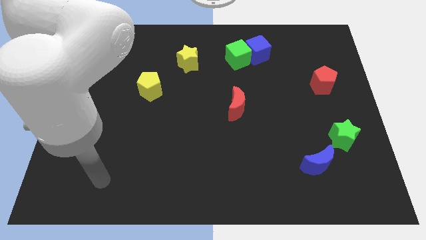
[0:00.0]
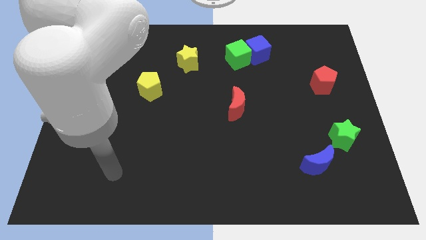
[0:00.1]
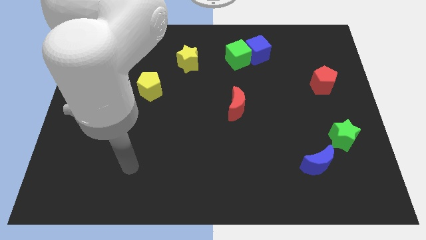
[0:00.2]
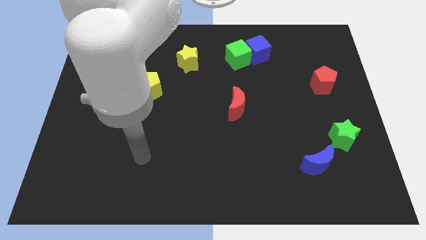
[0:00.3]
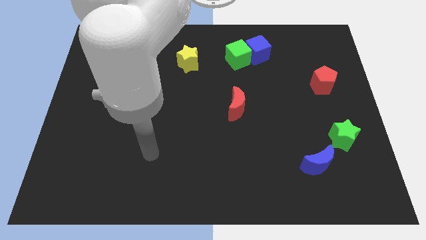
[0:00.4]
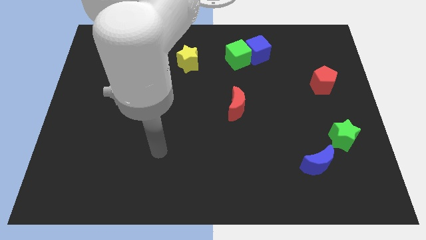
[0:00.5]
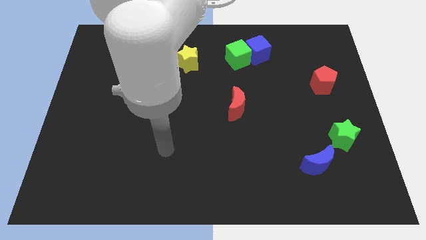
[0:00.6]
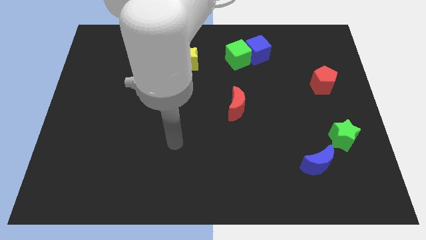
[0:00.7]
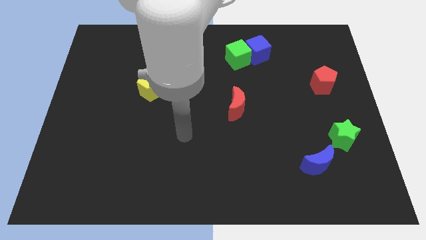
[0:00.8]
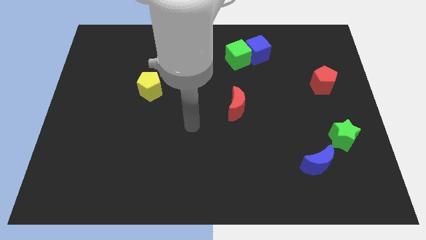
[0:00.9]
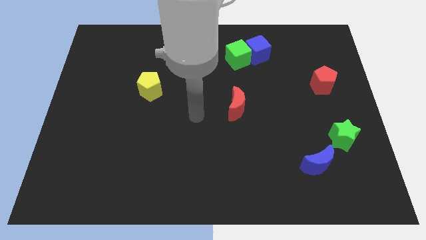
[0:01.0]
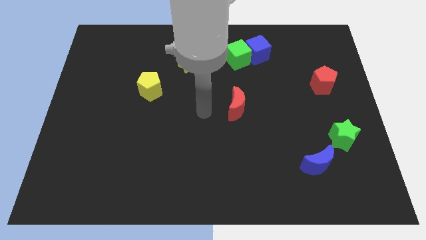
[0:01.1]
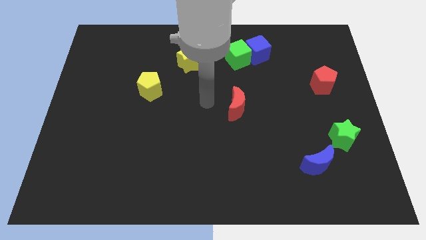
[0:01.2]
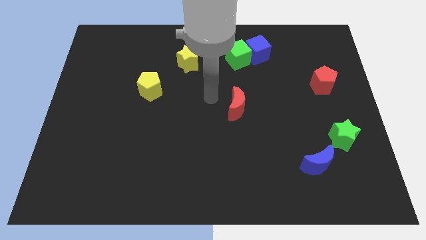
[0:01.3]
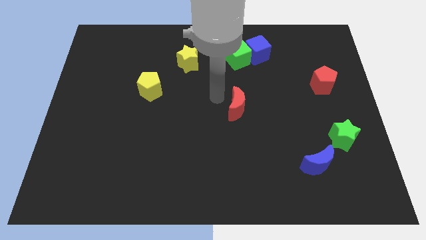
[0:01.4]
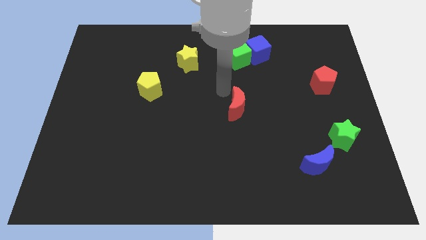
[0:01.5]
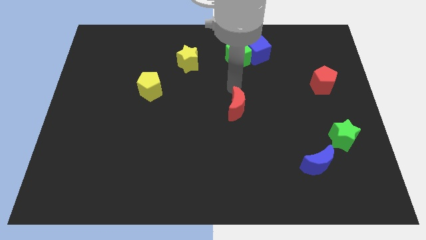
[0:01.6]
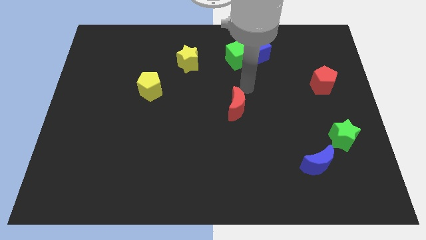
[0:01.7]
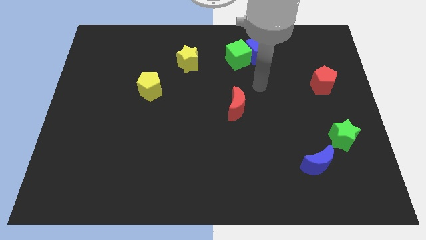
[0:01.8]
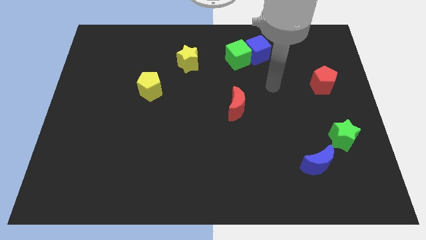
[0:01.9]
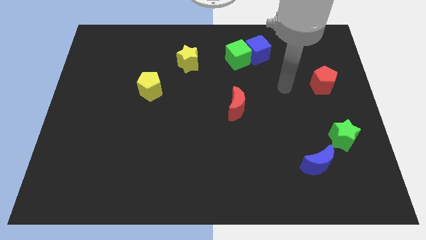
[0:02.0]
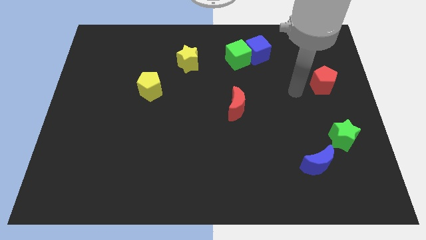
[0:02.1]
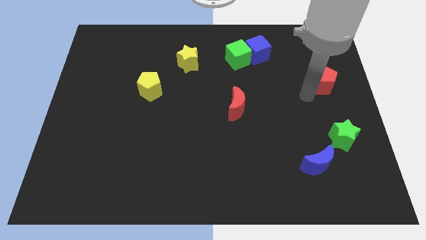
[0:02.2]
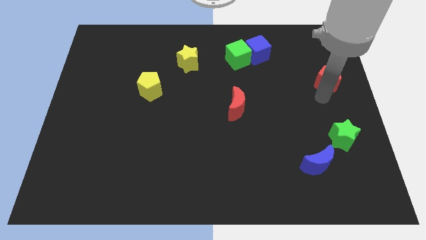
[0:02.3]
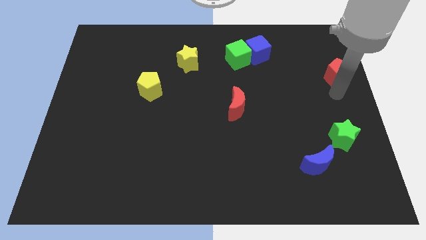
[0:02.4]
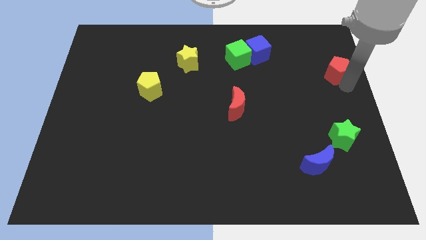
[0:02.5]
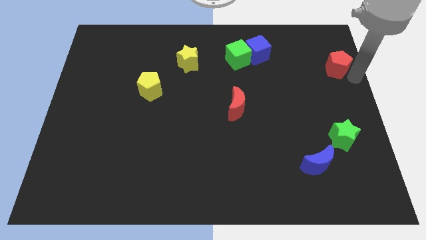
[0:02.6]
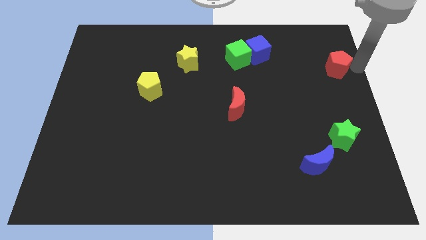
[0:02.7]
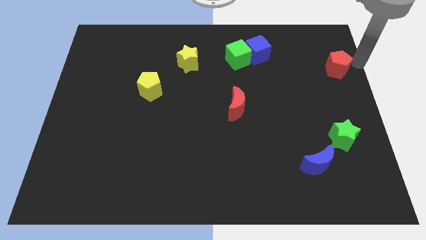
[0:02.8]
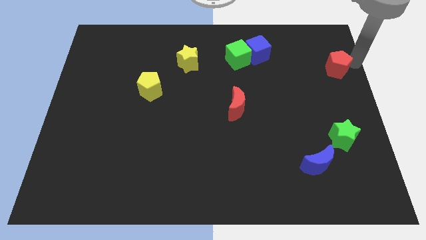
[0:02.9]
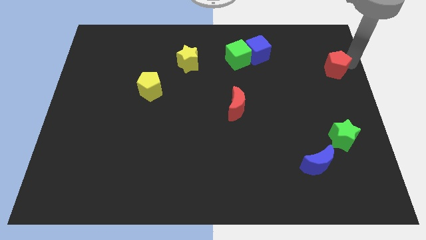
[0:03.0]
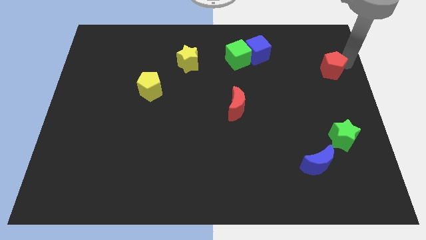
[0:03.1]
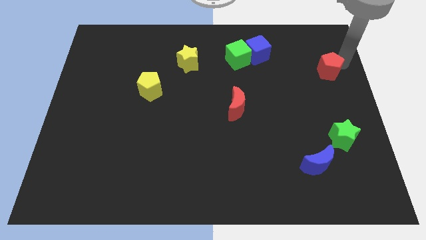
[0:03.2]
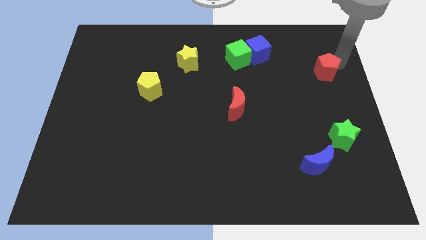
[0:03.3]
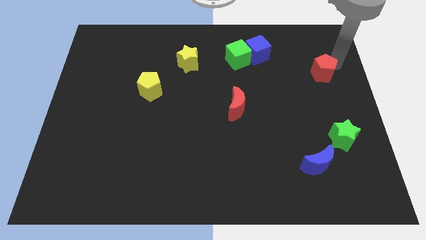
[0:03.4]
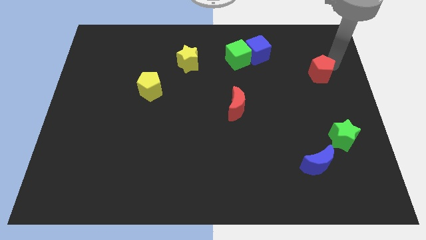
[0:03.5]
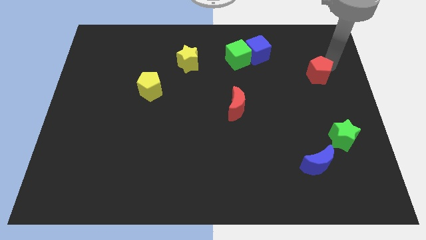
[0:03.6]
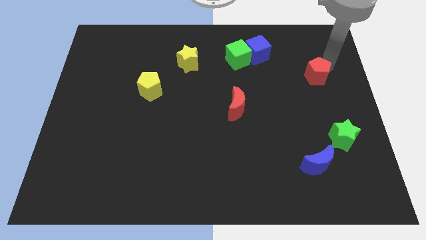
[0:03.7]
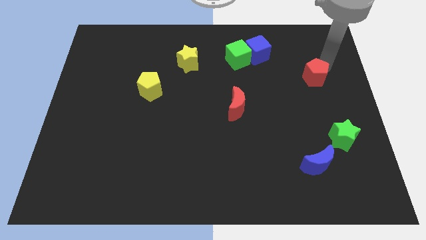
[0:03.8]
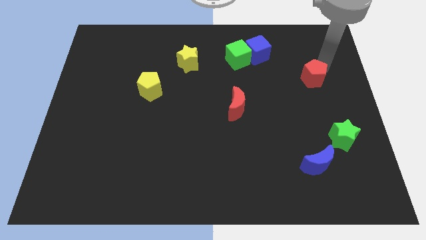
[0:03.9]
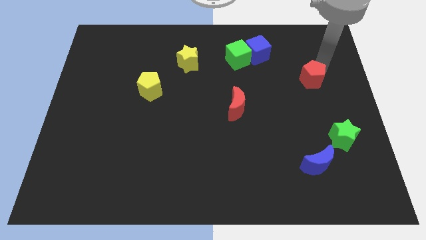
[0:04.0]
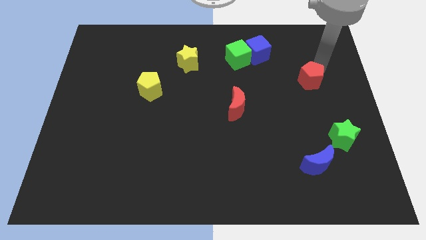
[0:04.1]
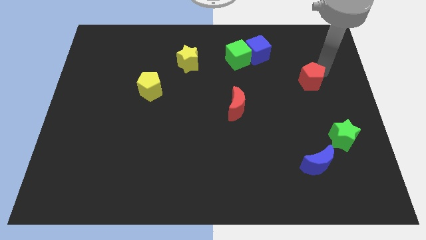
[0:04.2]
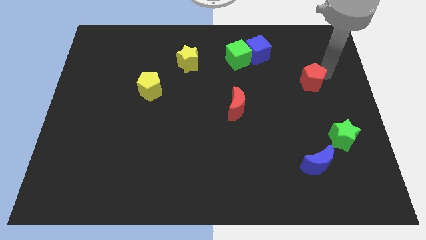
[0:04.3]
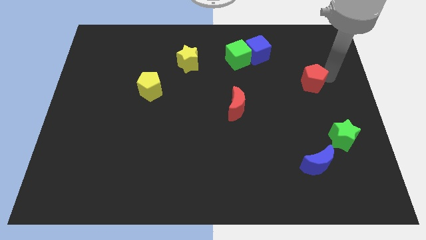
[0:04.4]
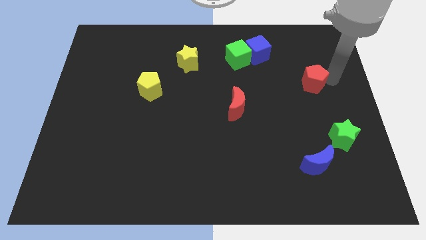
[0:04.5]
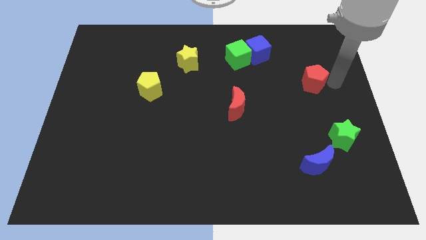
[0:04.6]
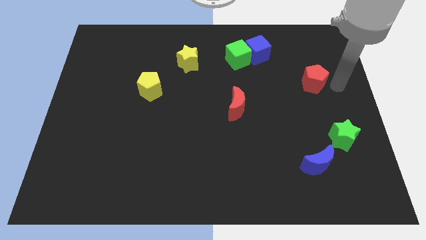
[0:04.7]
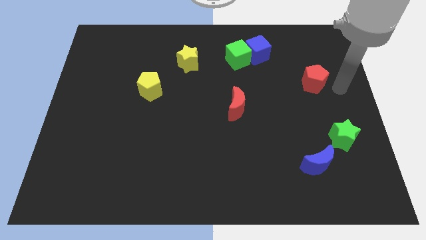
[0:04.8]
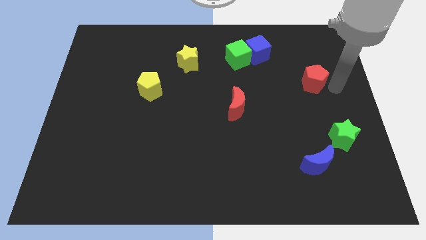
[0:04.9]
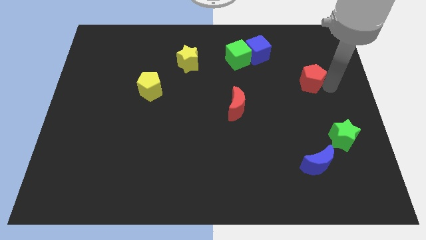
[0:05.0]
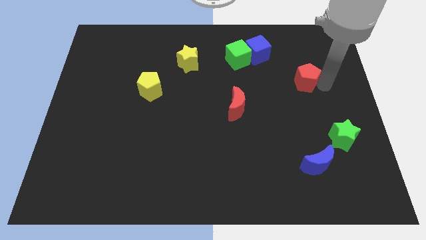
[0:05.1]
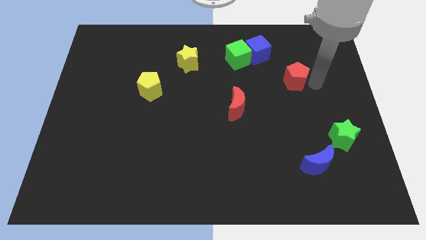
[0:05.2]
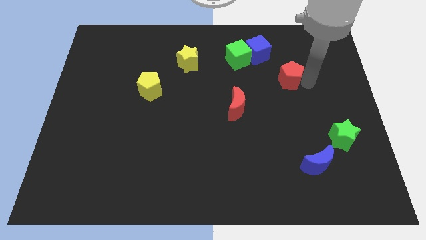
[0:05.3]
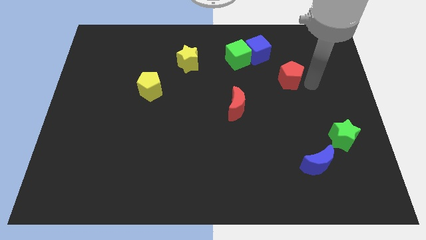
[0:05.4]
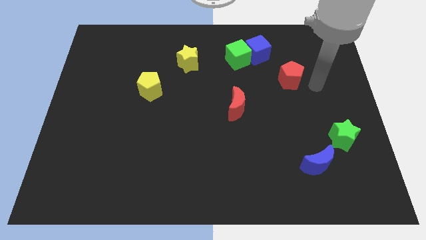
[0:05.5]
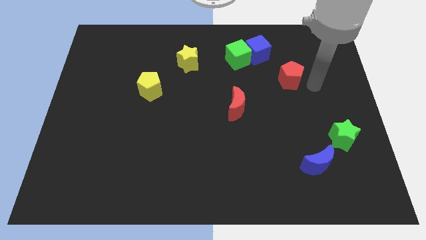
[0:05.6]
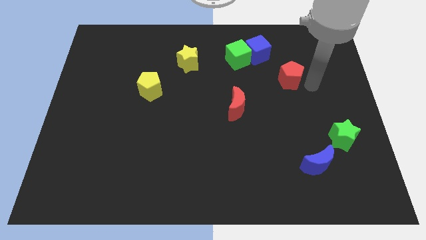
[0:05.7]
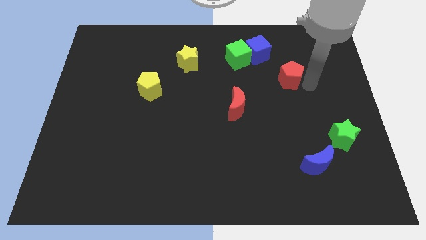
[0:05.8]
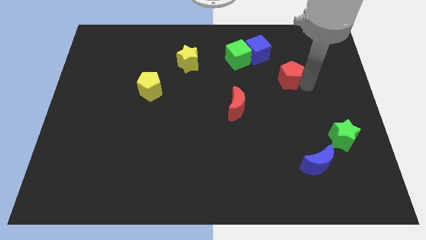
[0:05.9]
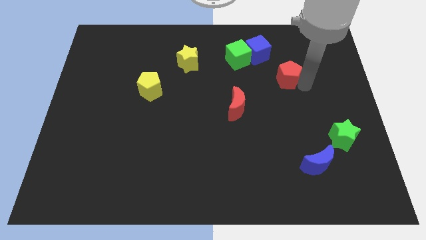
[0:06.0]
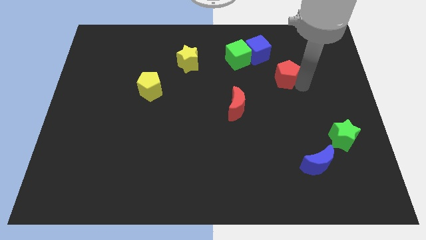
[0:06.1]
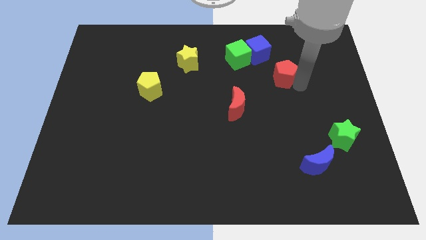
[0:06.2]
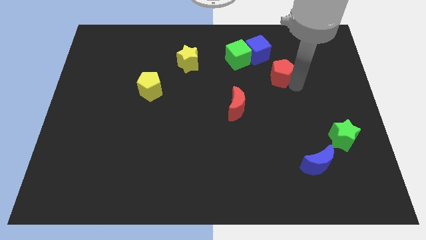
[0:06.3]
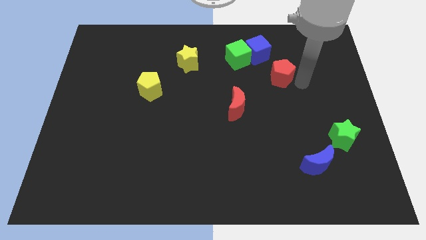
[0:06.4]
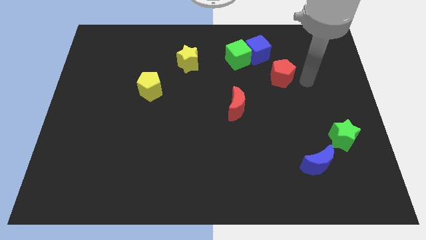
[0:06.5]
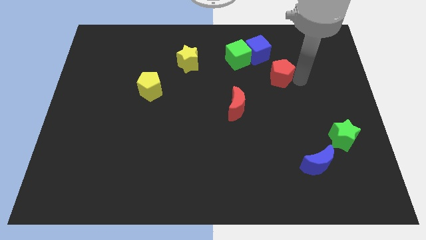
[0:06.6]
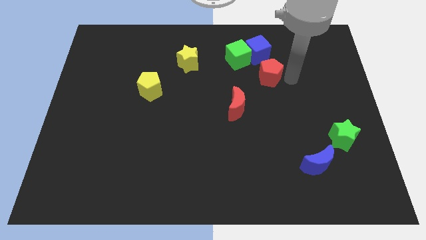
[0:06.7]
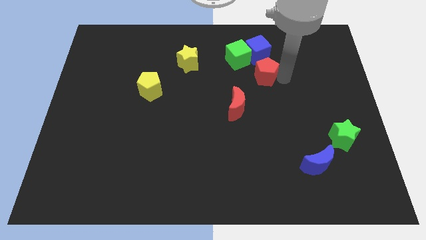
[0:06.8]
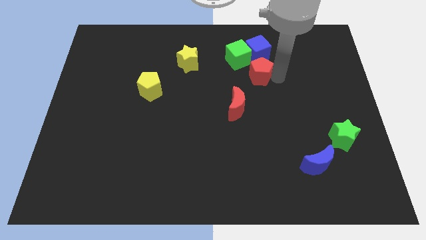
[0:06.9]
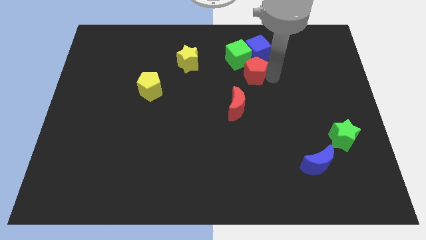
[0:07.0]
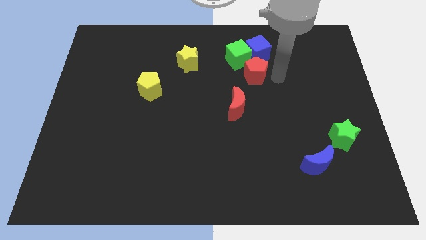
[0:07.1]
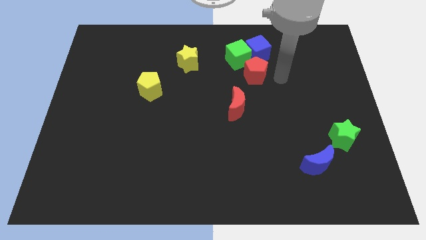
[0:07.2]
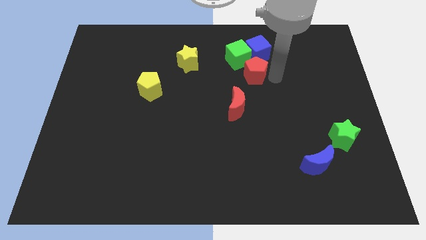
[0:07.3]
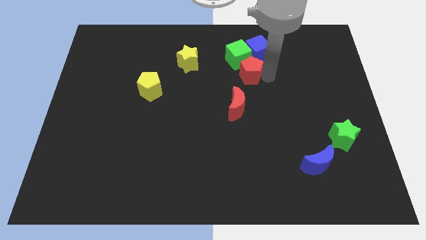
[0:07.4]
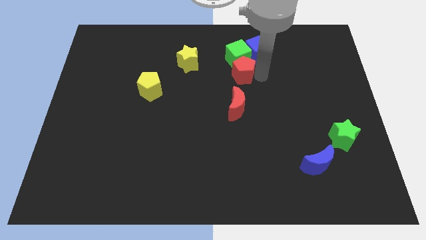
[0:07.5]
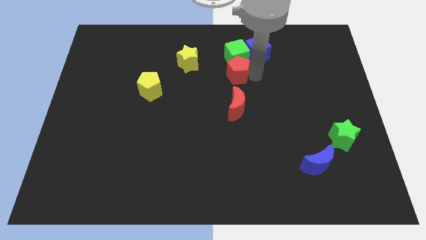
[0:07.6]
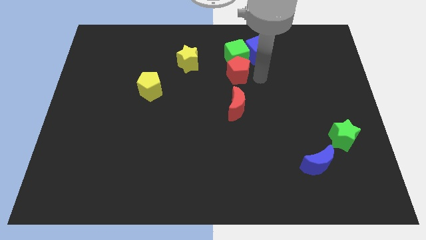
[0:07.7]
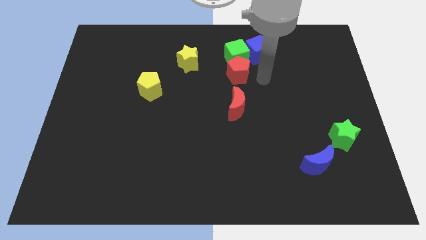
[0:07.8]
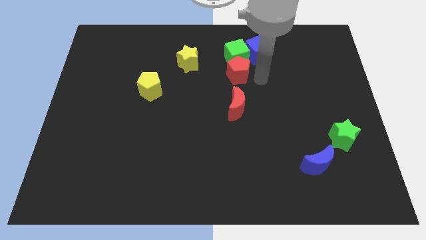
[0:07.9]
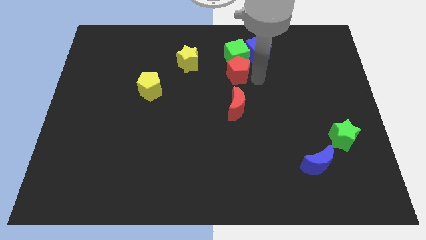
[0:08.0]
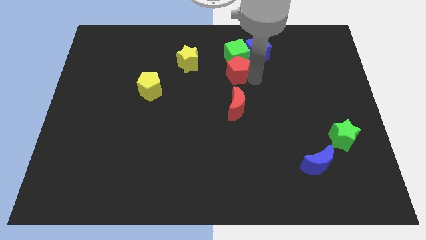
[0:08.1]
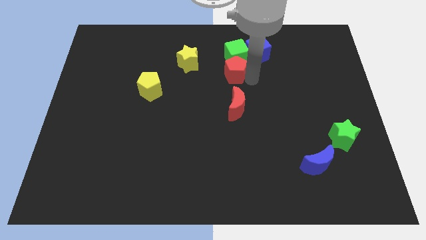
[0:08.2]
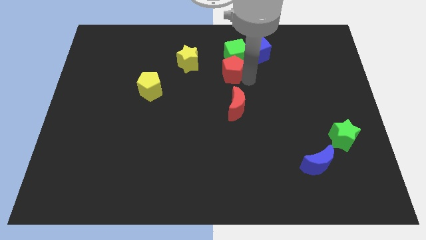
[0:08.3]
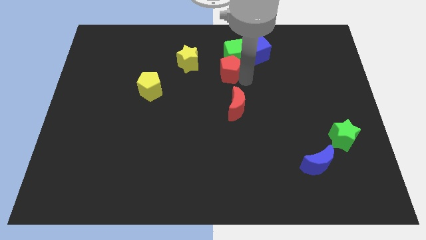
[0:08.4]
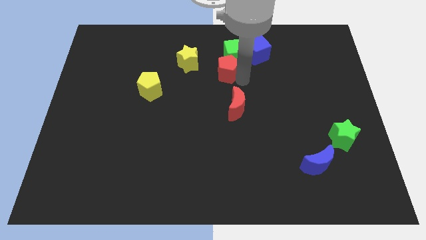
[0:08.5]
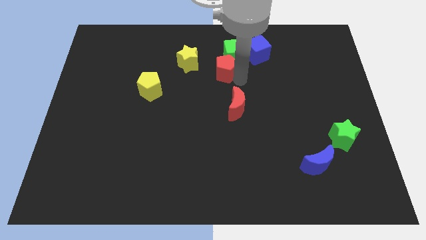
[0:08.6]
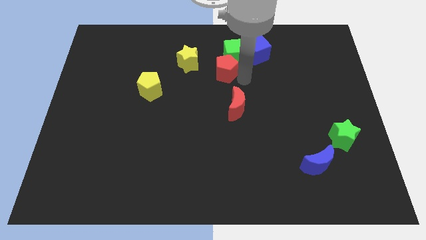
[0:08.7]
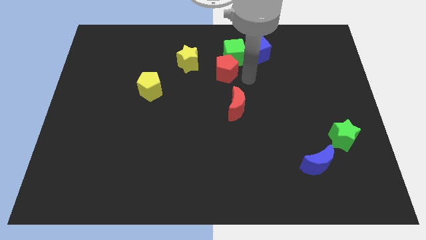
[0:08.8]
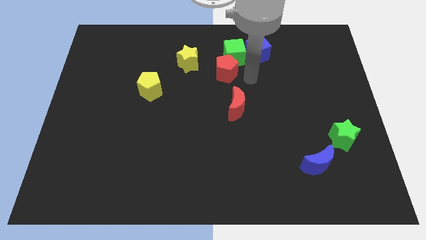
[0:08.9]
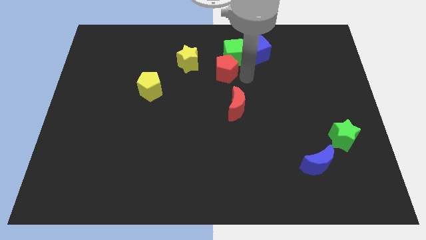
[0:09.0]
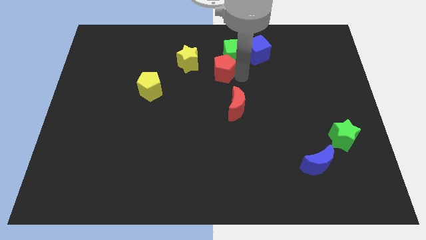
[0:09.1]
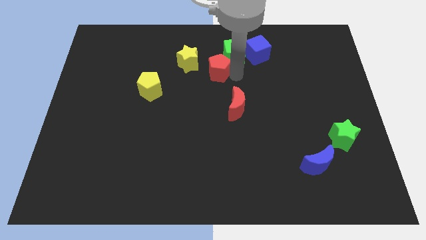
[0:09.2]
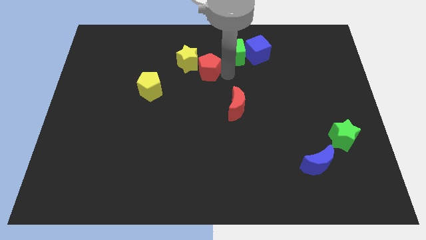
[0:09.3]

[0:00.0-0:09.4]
move the red pentagon to the yellow star
